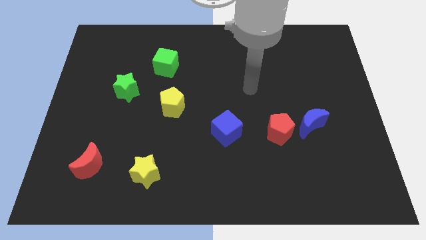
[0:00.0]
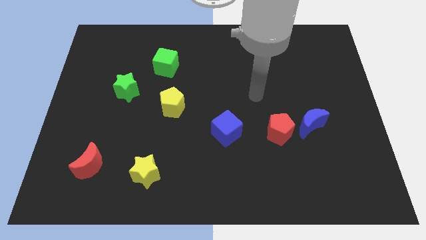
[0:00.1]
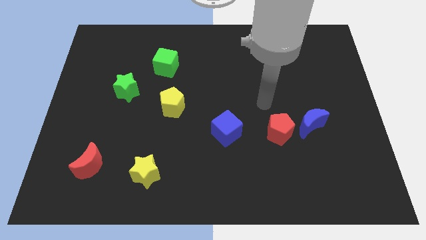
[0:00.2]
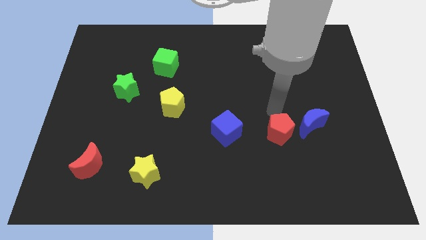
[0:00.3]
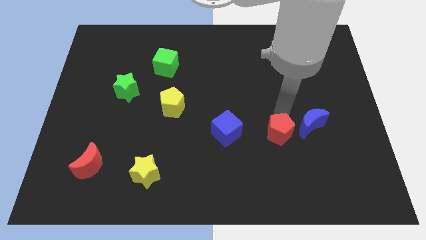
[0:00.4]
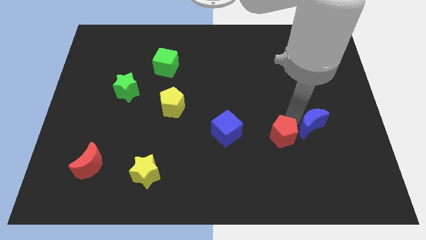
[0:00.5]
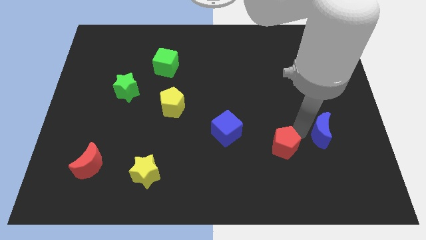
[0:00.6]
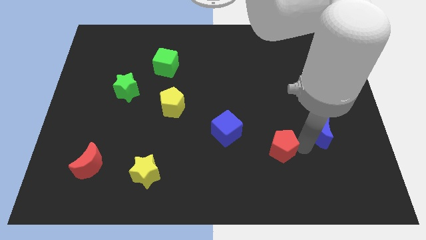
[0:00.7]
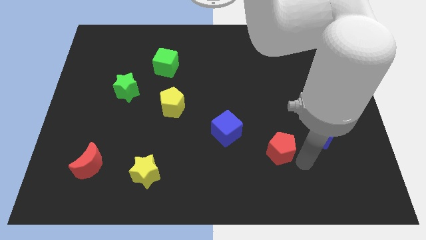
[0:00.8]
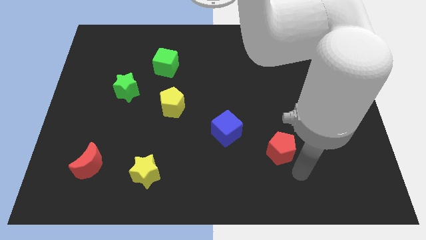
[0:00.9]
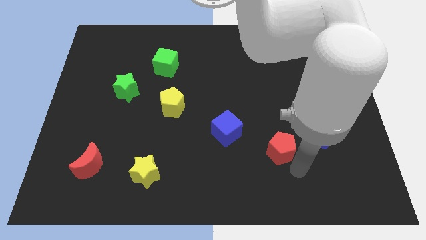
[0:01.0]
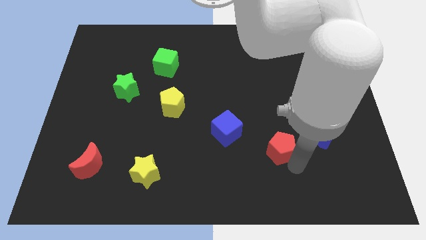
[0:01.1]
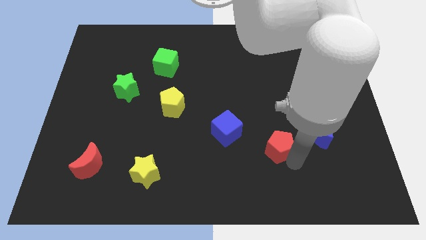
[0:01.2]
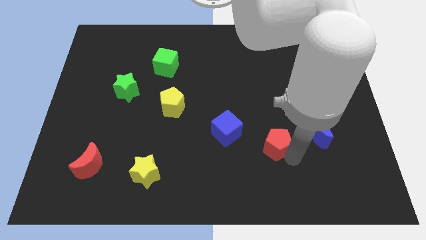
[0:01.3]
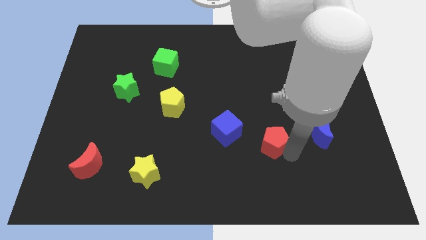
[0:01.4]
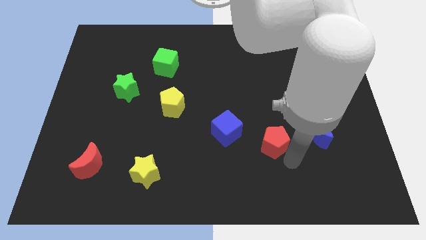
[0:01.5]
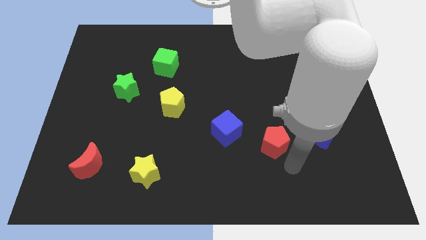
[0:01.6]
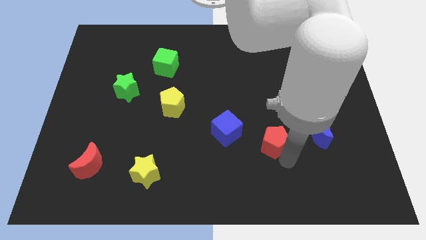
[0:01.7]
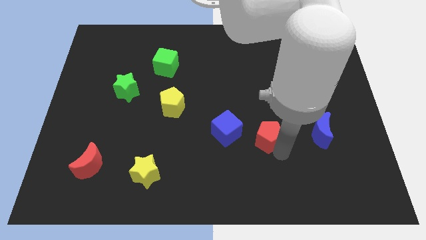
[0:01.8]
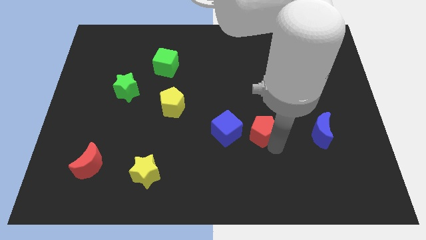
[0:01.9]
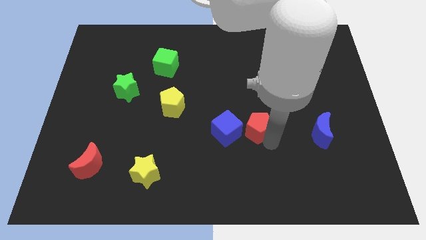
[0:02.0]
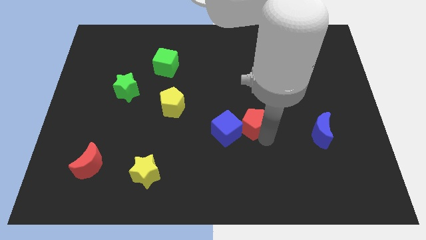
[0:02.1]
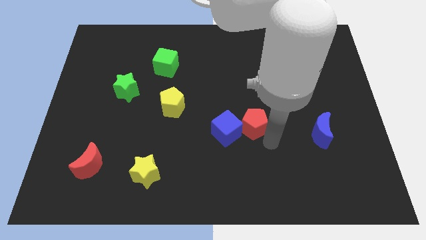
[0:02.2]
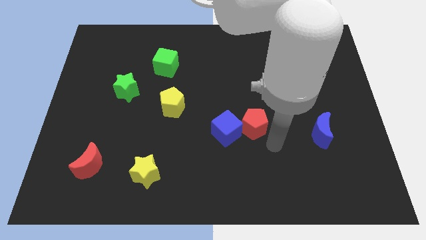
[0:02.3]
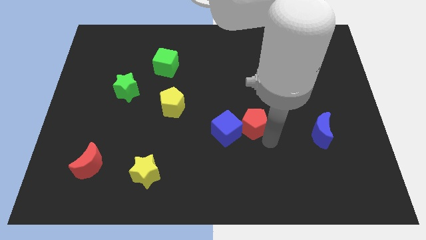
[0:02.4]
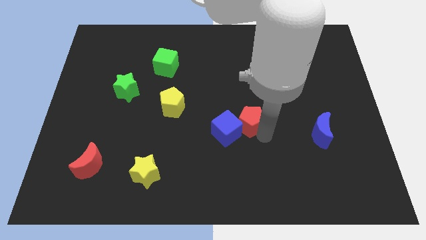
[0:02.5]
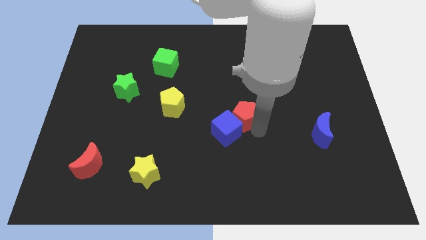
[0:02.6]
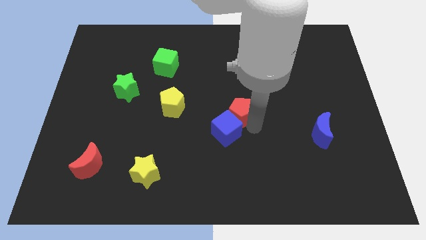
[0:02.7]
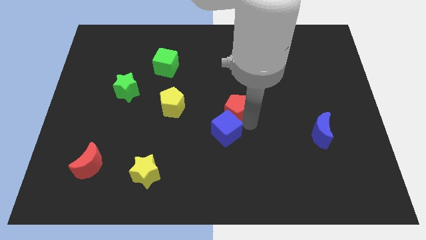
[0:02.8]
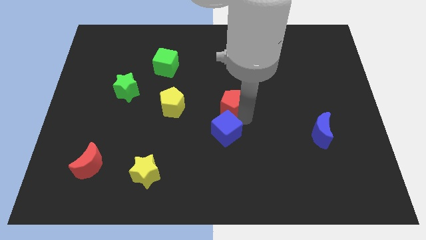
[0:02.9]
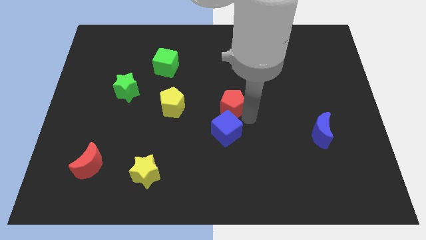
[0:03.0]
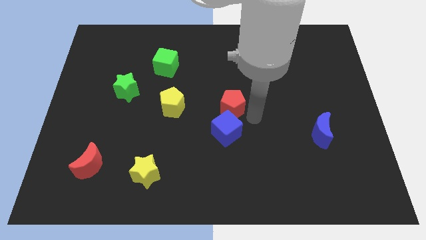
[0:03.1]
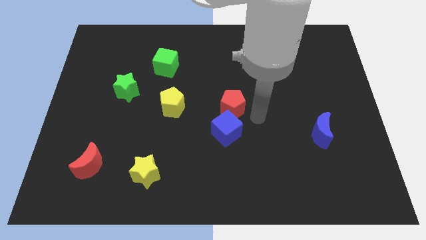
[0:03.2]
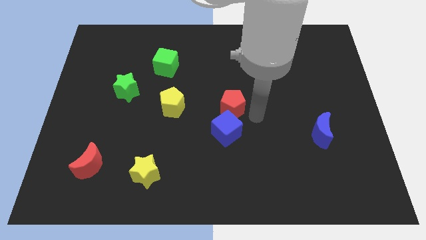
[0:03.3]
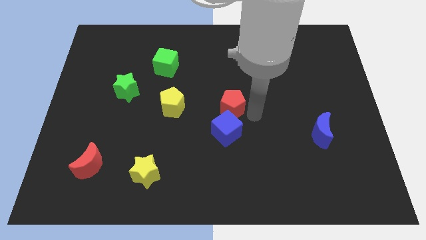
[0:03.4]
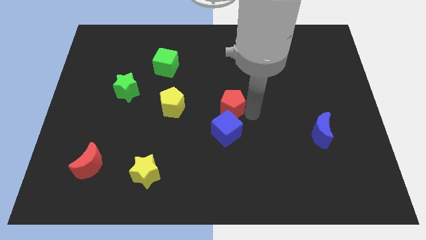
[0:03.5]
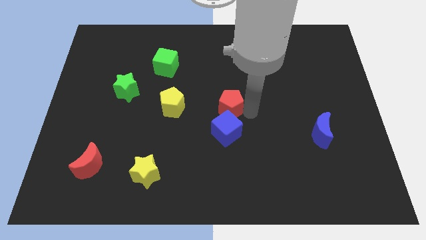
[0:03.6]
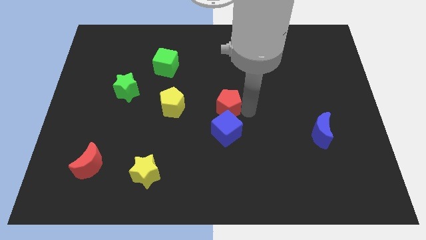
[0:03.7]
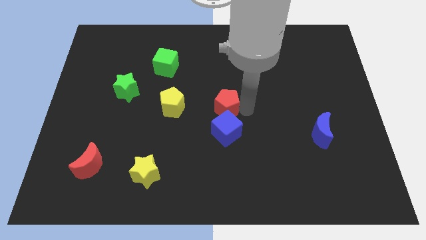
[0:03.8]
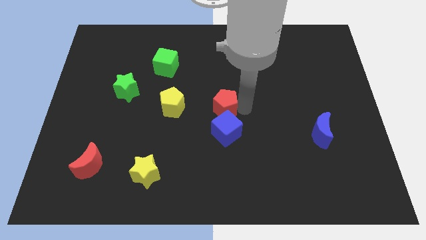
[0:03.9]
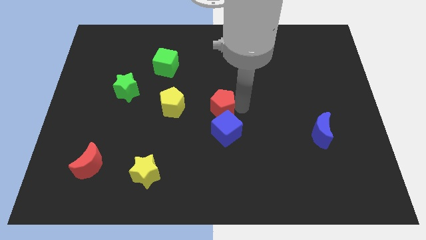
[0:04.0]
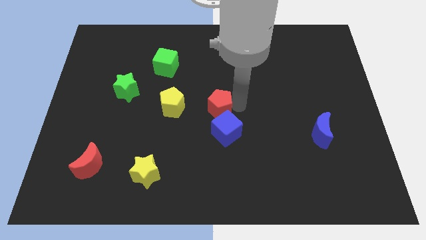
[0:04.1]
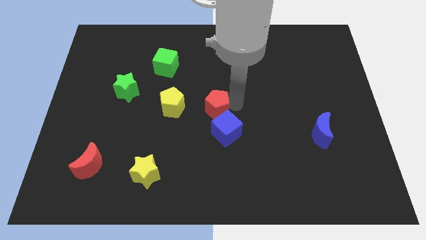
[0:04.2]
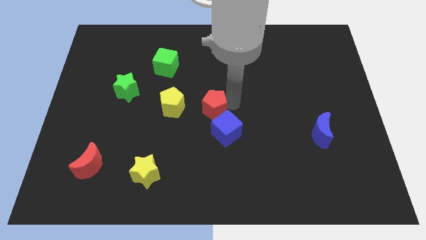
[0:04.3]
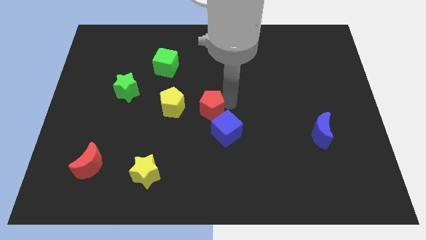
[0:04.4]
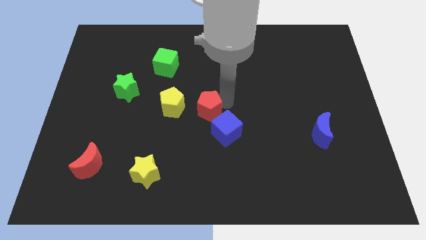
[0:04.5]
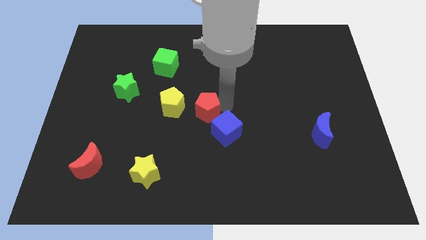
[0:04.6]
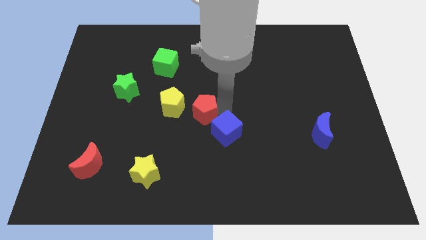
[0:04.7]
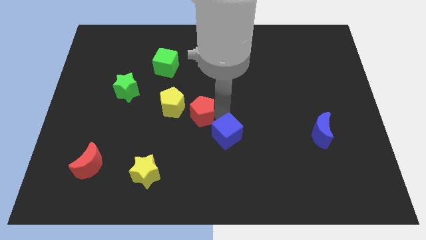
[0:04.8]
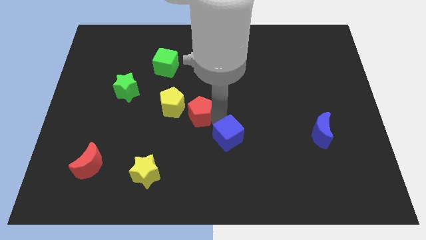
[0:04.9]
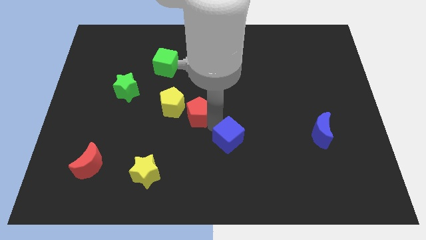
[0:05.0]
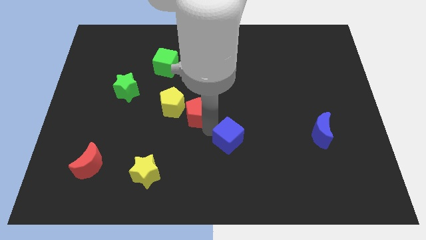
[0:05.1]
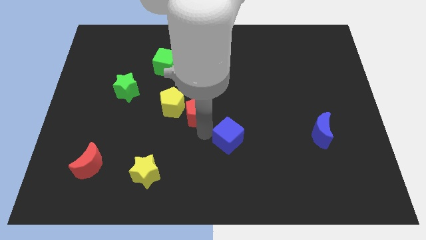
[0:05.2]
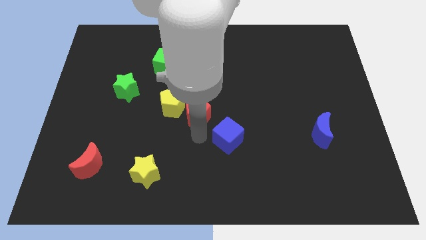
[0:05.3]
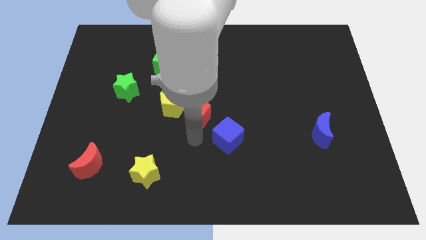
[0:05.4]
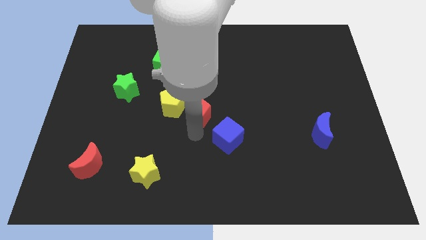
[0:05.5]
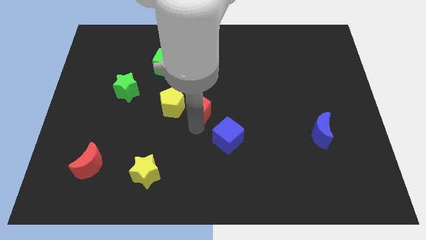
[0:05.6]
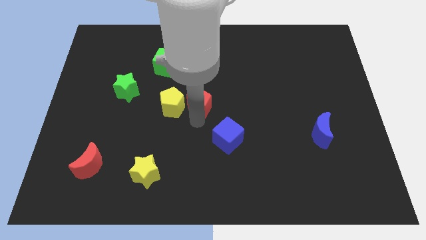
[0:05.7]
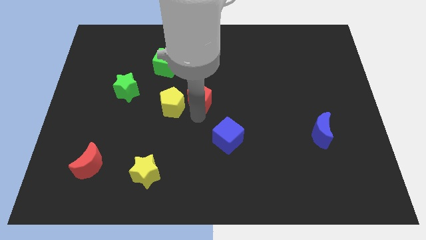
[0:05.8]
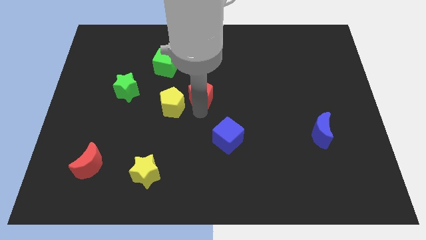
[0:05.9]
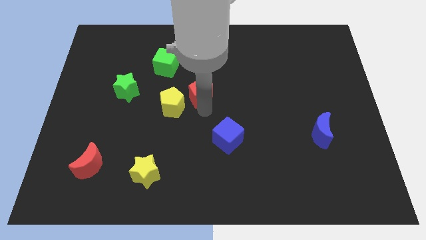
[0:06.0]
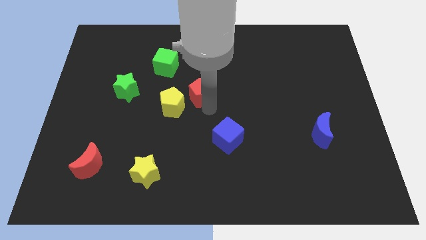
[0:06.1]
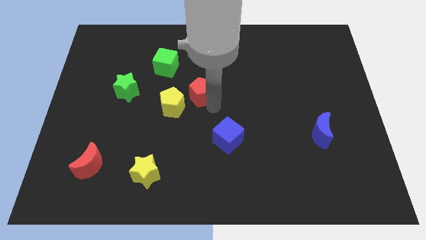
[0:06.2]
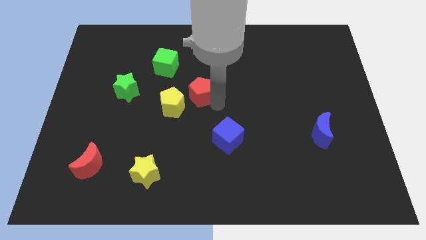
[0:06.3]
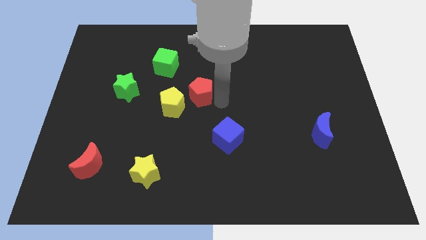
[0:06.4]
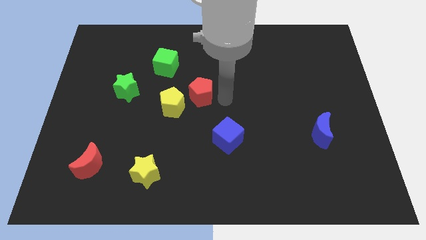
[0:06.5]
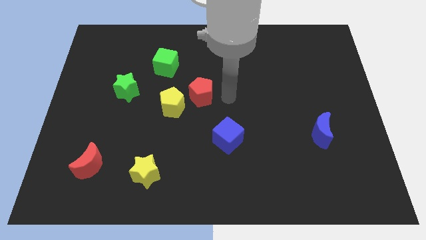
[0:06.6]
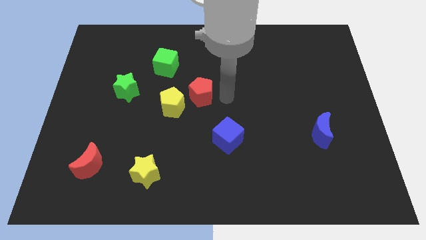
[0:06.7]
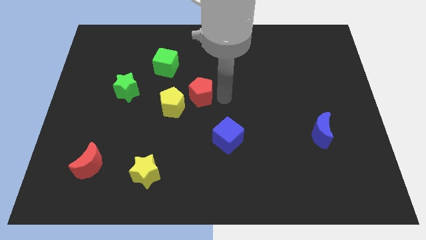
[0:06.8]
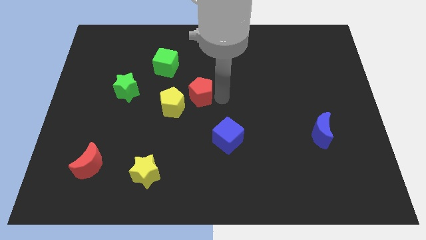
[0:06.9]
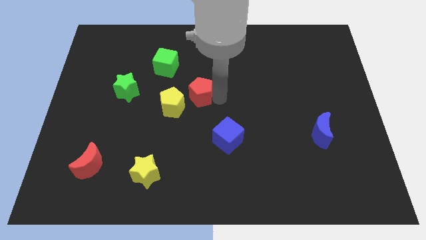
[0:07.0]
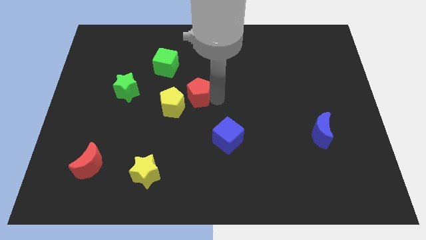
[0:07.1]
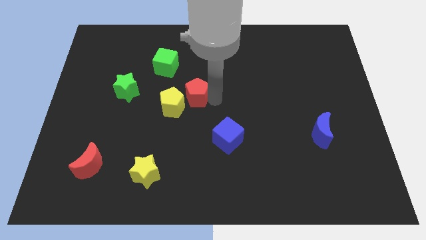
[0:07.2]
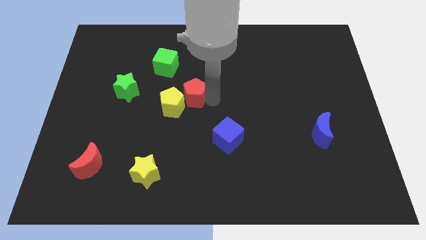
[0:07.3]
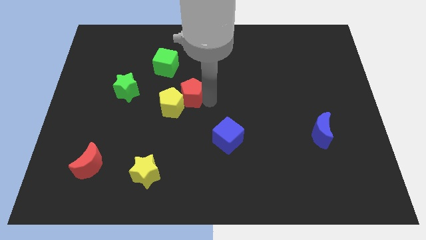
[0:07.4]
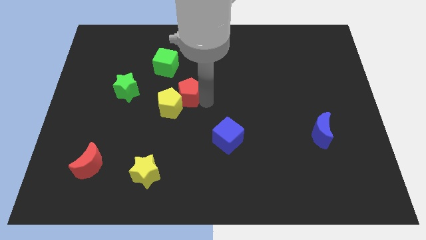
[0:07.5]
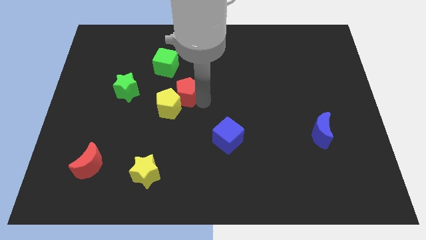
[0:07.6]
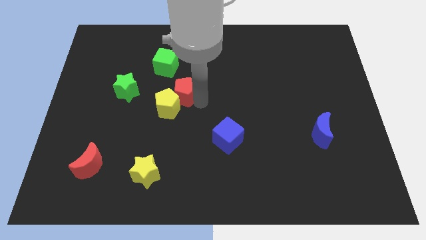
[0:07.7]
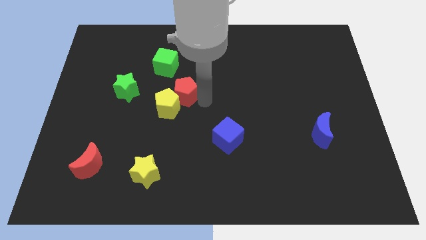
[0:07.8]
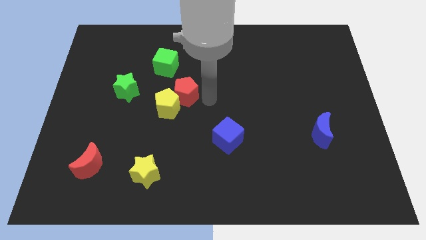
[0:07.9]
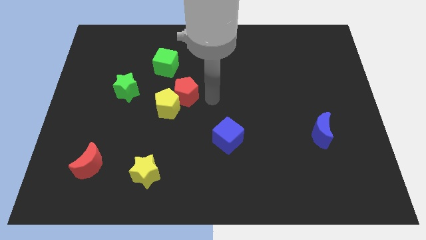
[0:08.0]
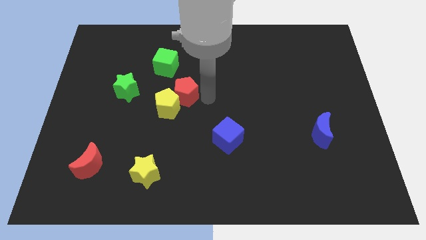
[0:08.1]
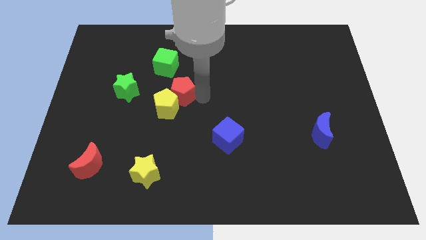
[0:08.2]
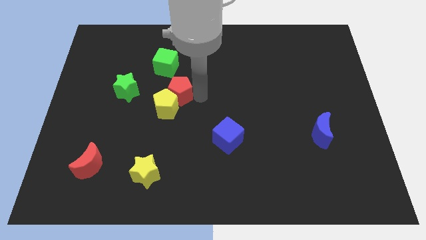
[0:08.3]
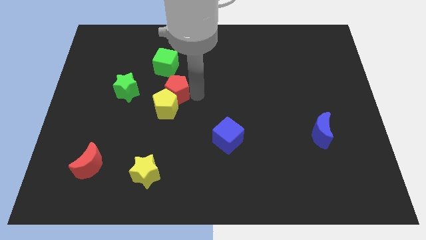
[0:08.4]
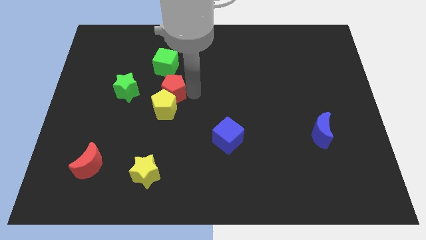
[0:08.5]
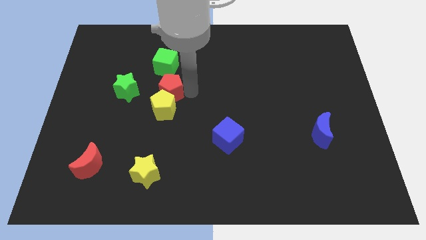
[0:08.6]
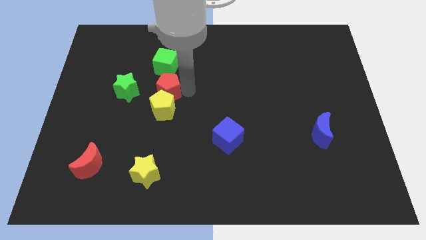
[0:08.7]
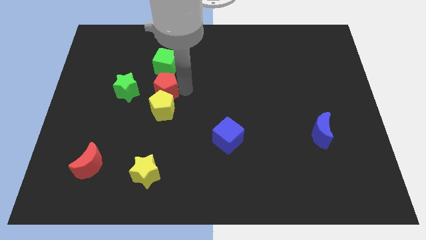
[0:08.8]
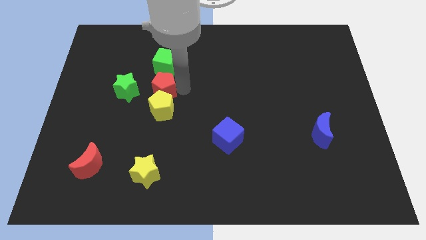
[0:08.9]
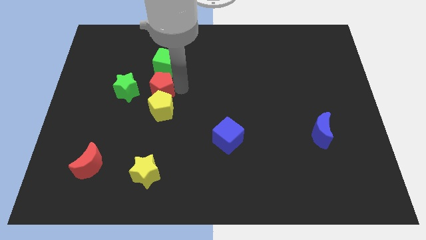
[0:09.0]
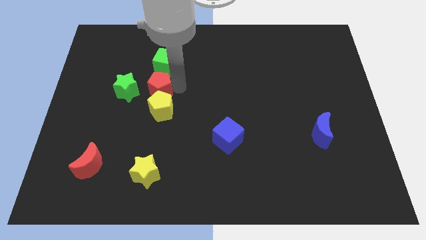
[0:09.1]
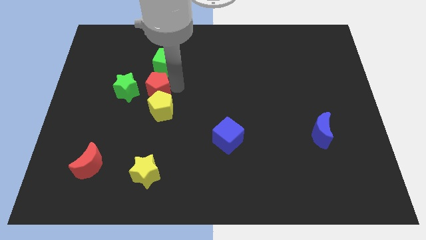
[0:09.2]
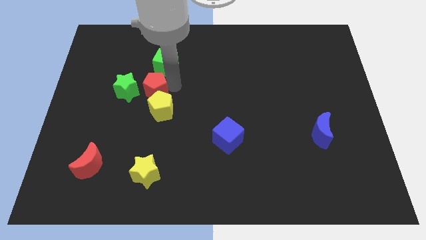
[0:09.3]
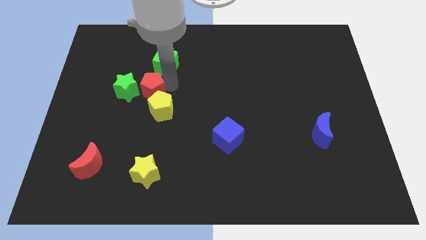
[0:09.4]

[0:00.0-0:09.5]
put the red pentagon towards the green star
